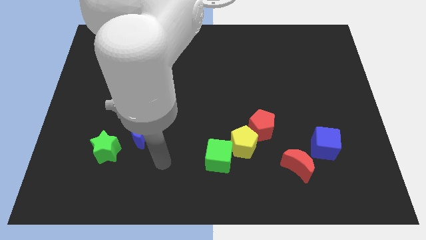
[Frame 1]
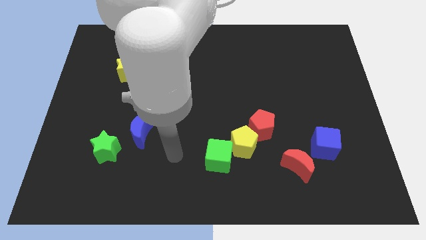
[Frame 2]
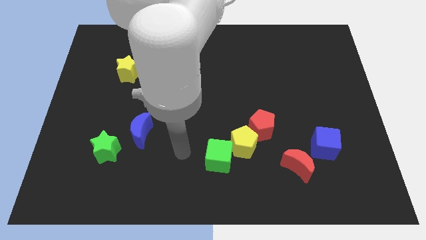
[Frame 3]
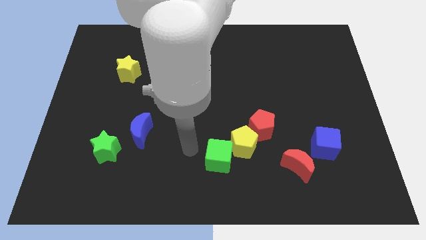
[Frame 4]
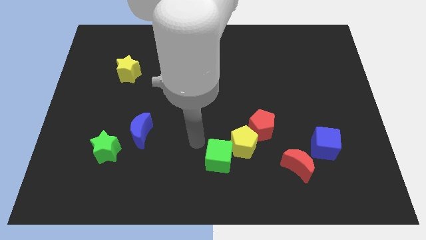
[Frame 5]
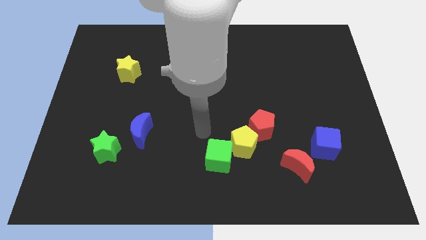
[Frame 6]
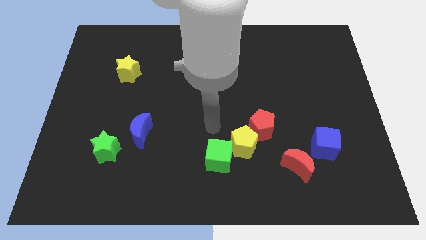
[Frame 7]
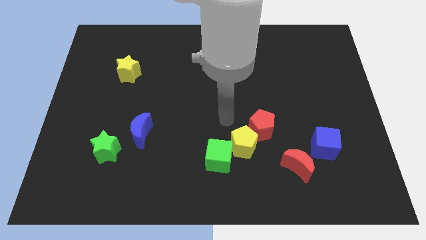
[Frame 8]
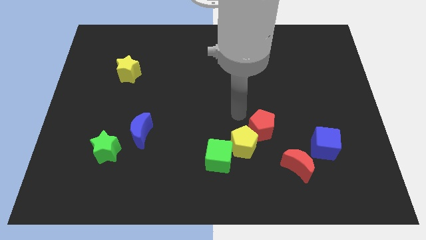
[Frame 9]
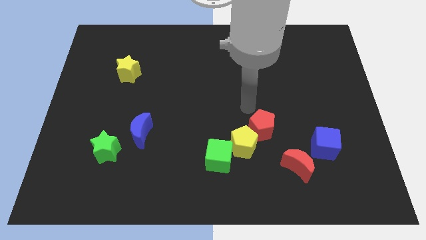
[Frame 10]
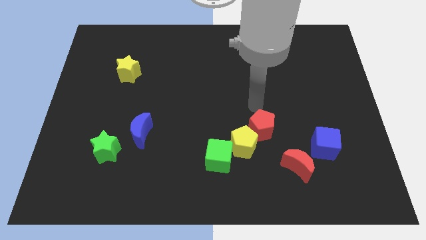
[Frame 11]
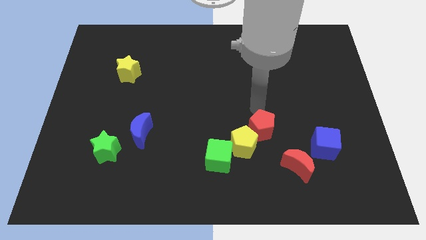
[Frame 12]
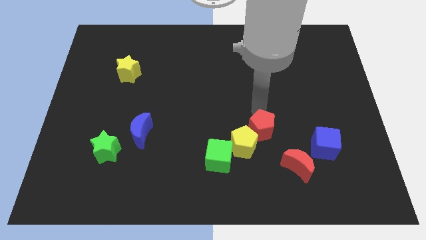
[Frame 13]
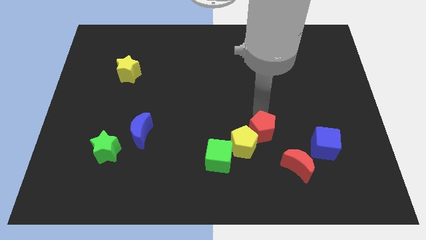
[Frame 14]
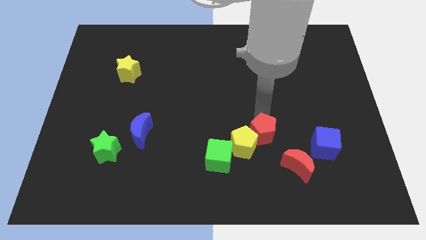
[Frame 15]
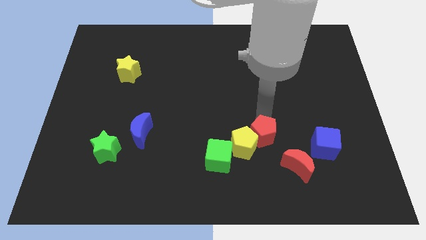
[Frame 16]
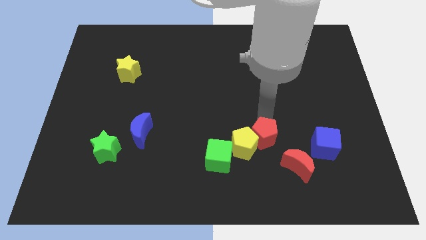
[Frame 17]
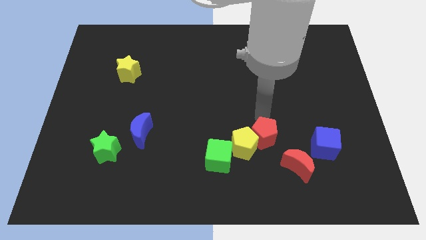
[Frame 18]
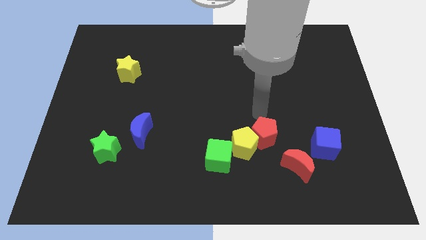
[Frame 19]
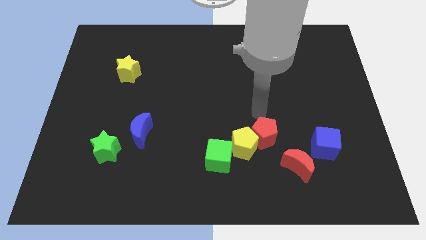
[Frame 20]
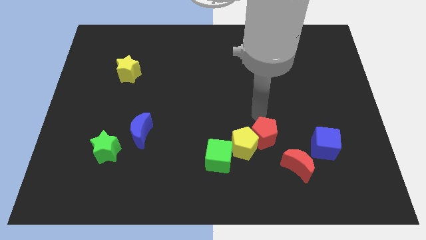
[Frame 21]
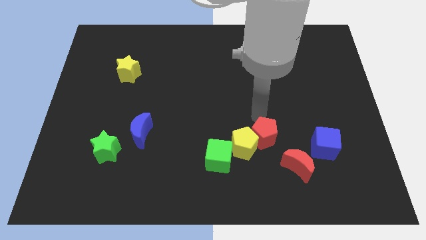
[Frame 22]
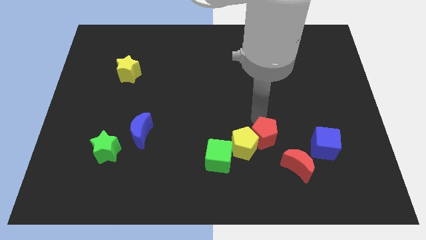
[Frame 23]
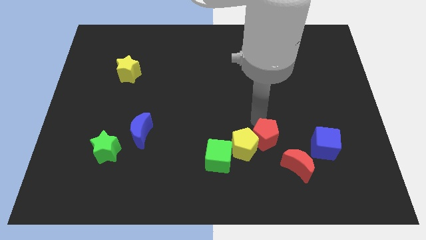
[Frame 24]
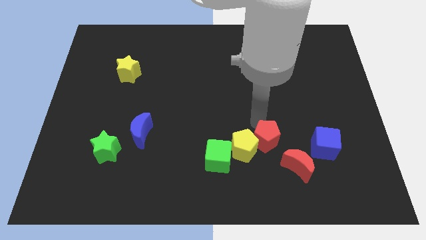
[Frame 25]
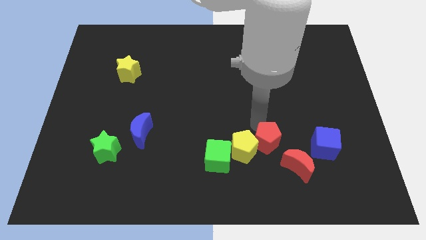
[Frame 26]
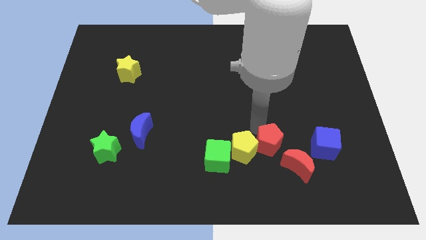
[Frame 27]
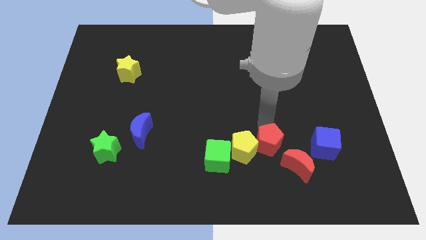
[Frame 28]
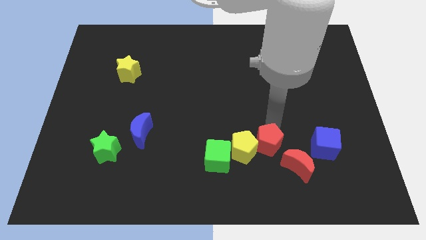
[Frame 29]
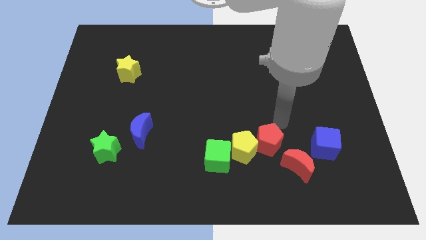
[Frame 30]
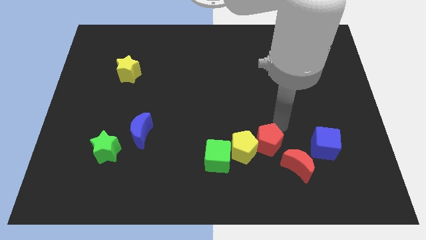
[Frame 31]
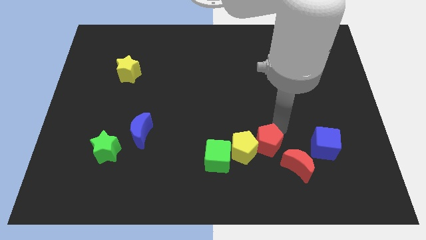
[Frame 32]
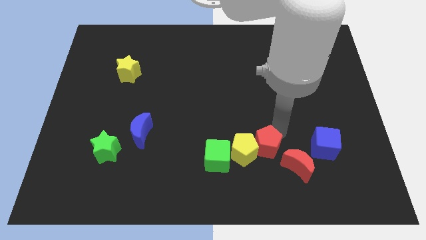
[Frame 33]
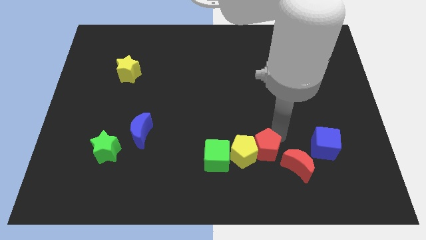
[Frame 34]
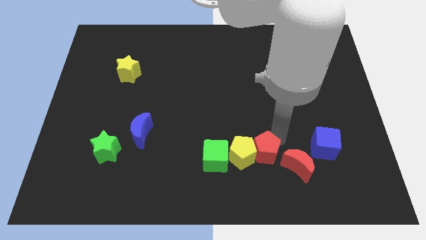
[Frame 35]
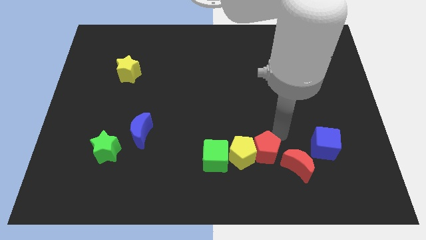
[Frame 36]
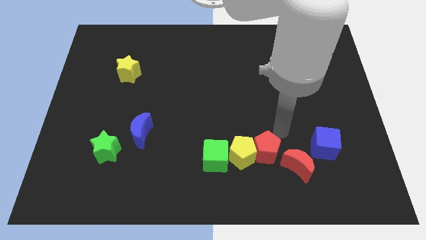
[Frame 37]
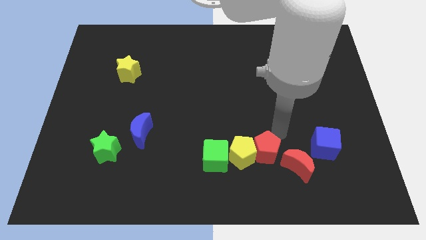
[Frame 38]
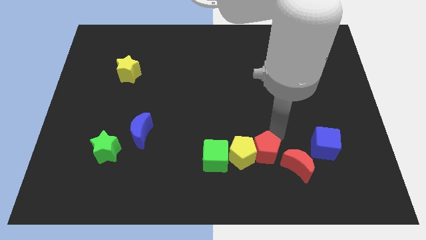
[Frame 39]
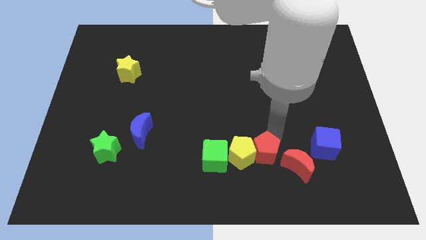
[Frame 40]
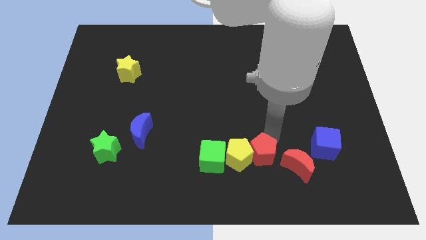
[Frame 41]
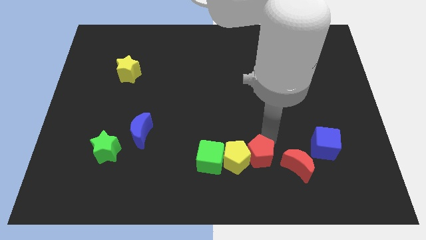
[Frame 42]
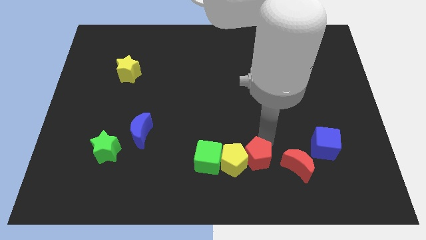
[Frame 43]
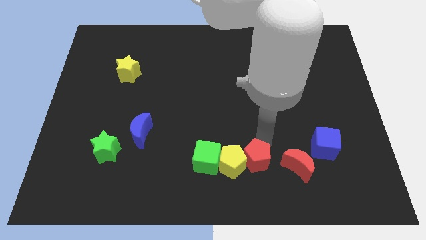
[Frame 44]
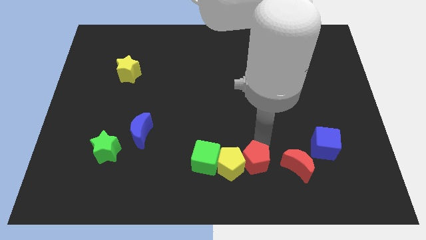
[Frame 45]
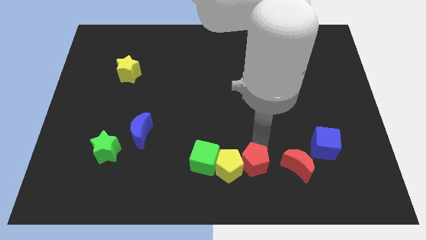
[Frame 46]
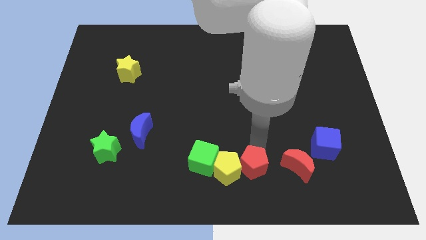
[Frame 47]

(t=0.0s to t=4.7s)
put the red pentagon to the bottom

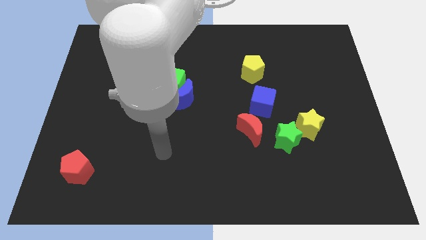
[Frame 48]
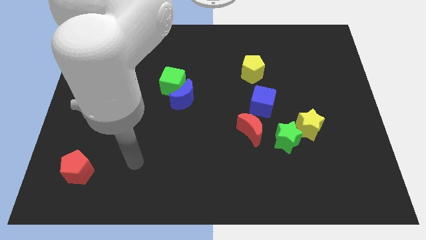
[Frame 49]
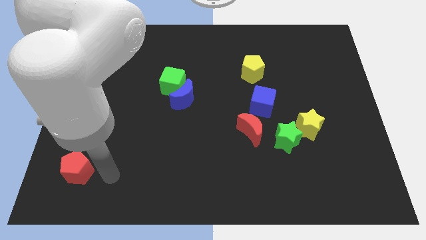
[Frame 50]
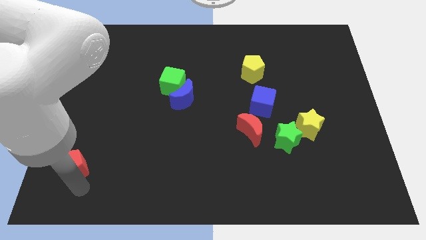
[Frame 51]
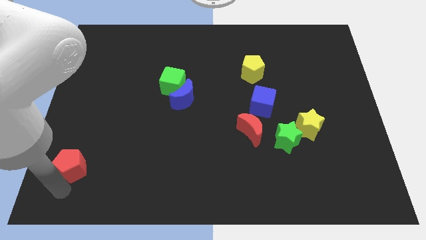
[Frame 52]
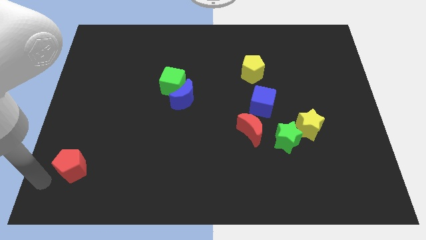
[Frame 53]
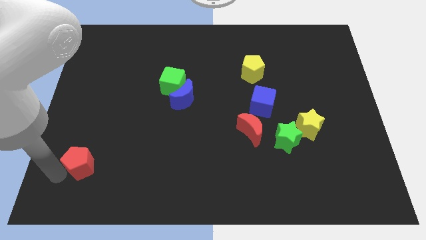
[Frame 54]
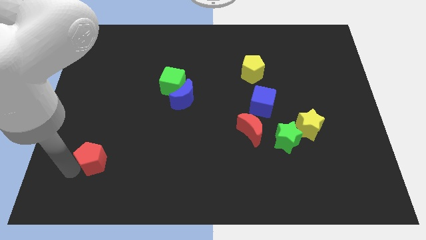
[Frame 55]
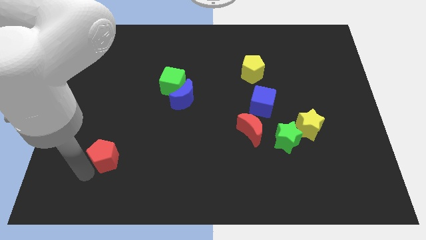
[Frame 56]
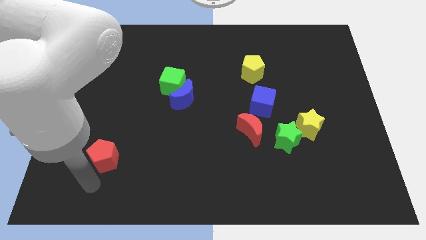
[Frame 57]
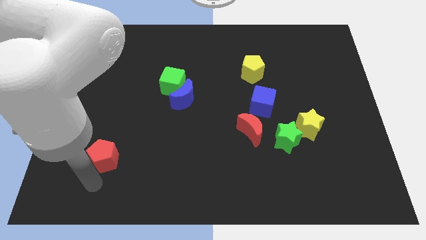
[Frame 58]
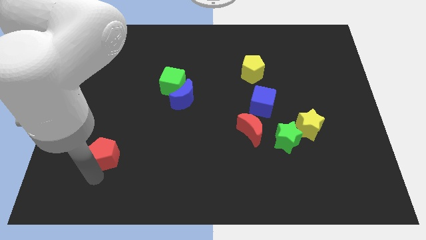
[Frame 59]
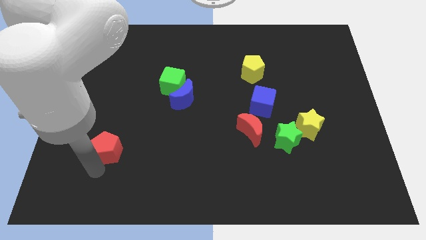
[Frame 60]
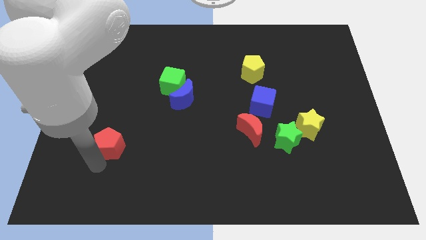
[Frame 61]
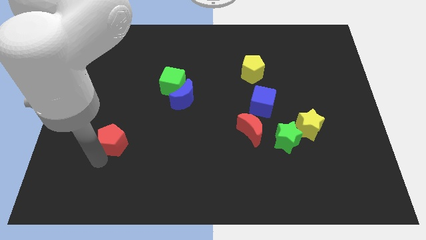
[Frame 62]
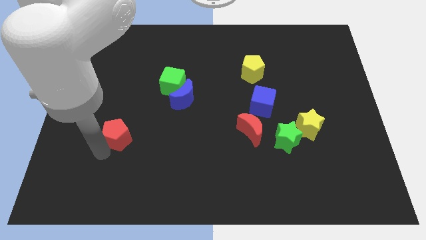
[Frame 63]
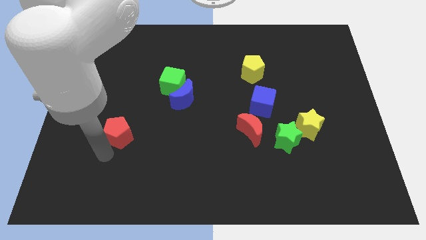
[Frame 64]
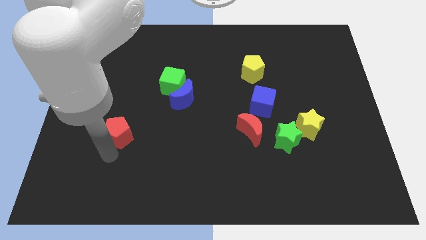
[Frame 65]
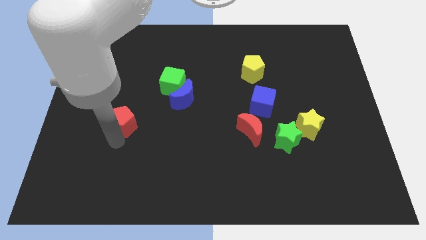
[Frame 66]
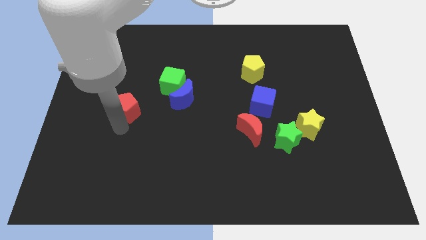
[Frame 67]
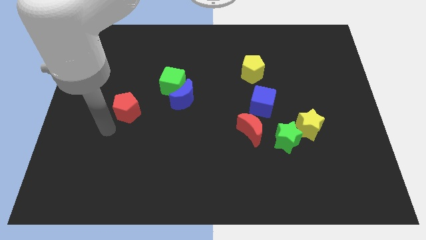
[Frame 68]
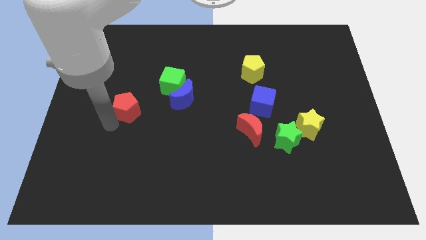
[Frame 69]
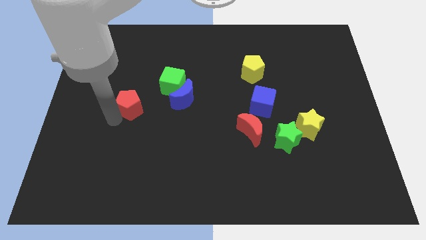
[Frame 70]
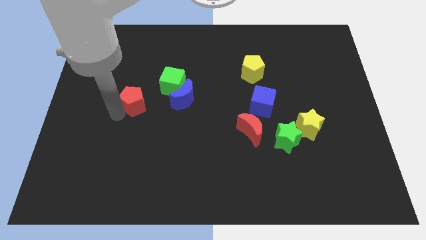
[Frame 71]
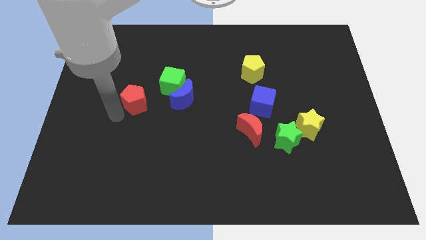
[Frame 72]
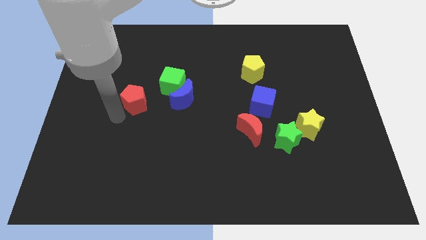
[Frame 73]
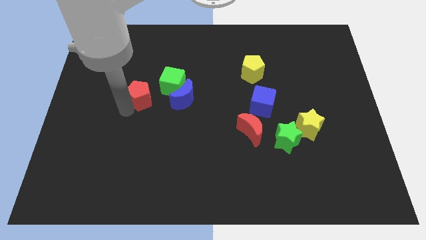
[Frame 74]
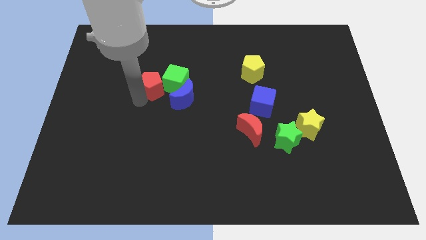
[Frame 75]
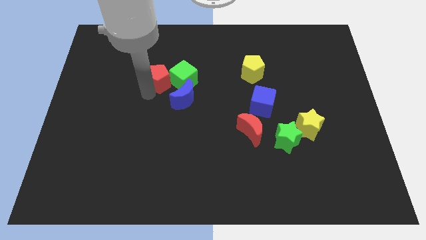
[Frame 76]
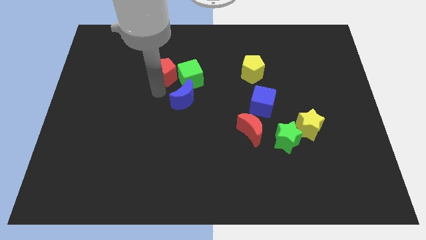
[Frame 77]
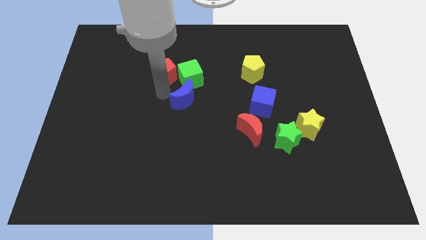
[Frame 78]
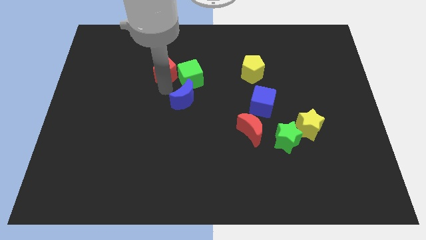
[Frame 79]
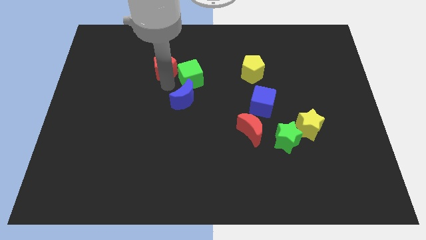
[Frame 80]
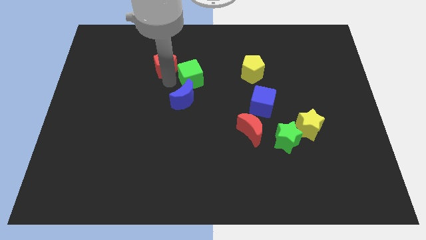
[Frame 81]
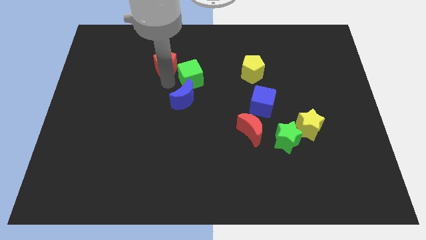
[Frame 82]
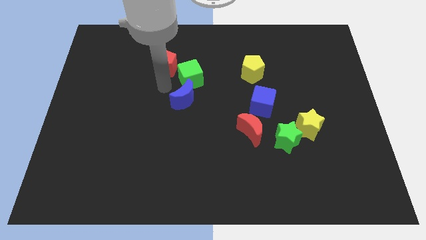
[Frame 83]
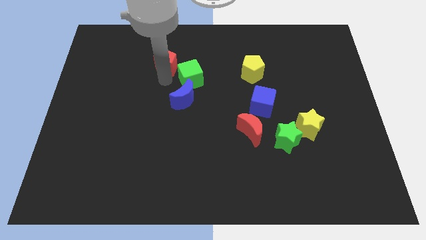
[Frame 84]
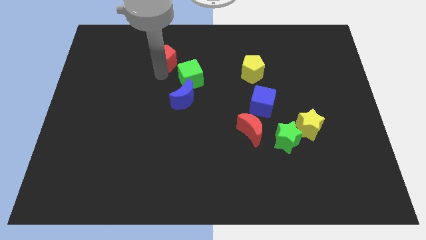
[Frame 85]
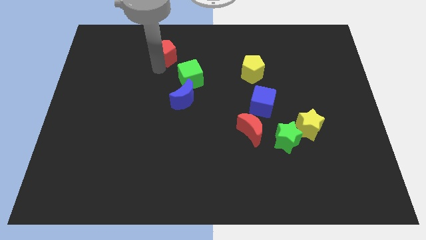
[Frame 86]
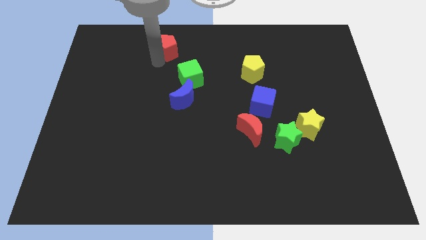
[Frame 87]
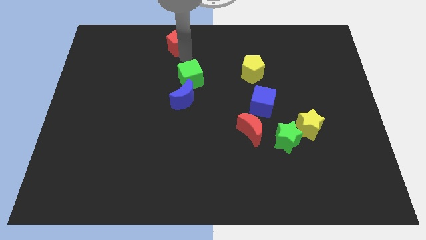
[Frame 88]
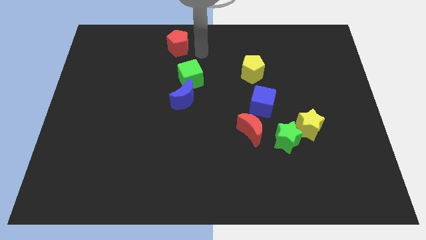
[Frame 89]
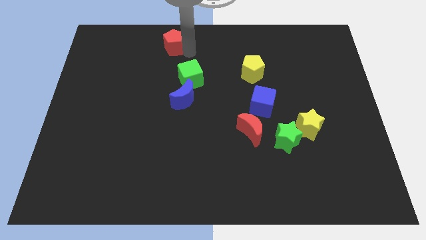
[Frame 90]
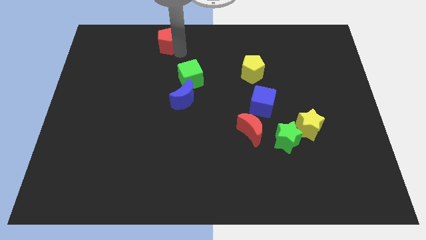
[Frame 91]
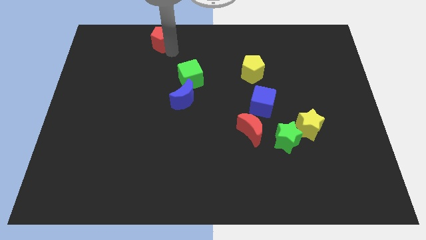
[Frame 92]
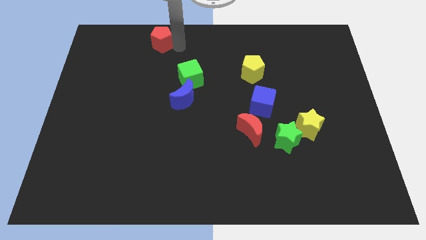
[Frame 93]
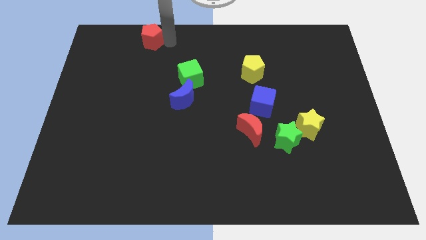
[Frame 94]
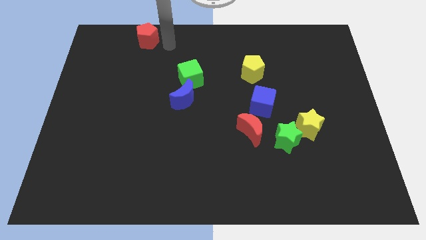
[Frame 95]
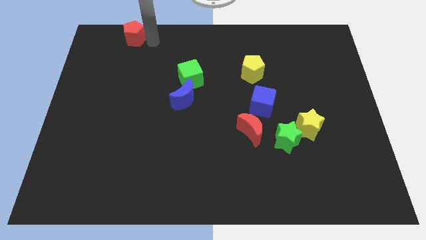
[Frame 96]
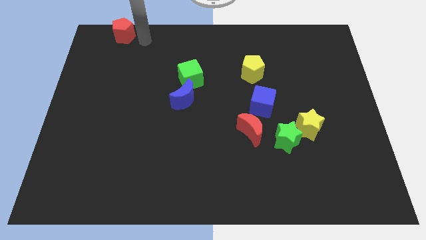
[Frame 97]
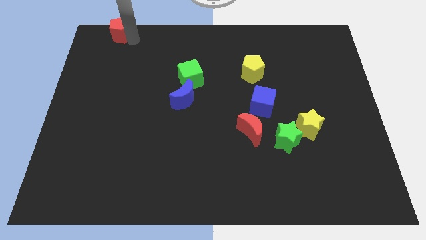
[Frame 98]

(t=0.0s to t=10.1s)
move the red pentagon to the top left of the board
